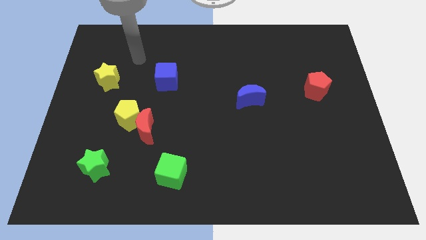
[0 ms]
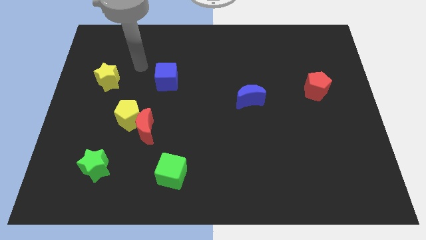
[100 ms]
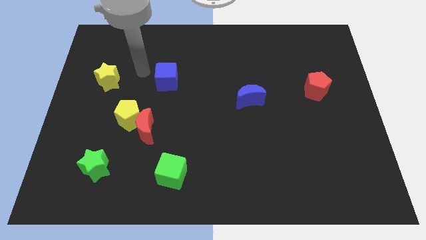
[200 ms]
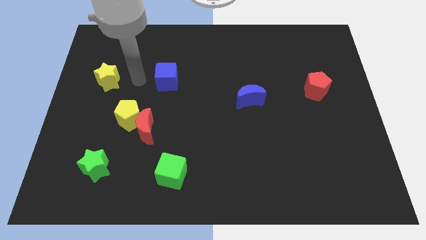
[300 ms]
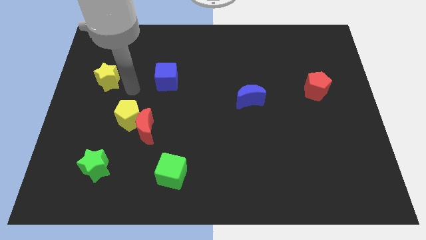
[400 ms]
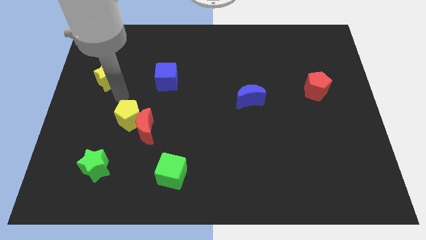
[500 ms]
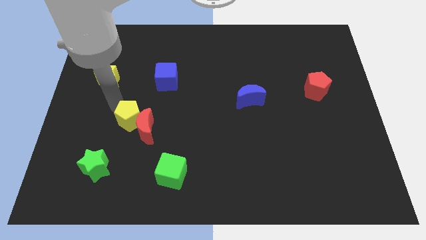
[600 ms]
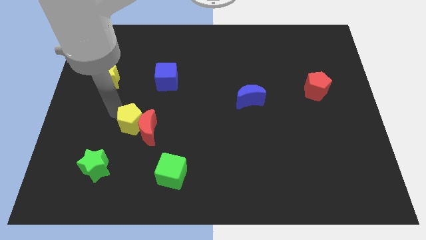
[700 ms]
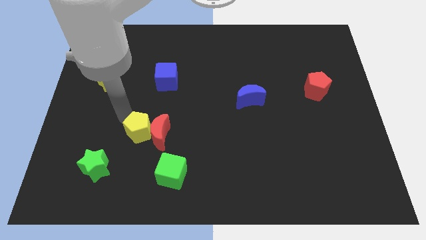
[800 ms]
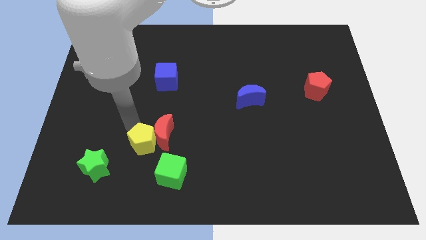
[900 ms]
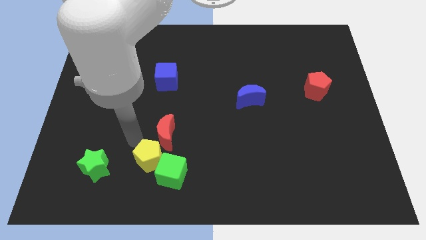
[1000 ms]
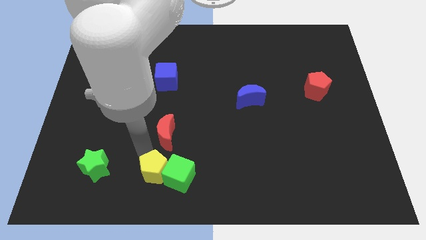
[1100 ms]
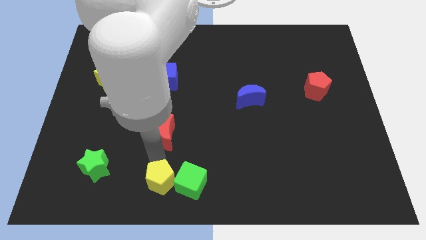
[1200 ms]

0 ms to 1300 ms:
pull the red moon apart from the yellow pentagon

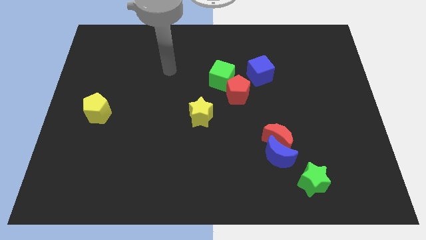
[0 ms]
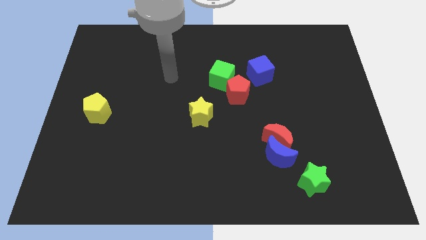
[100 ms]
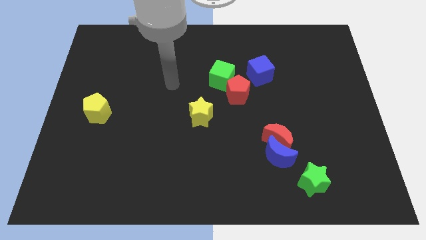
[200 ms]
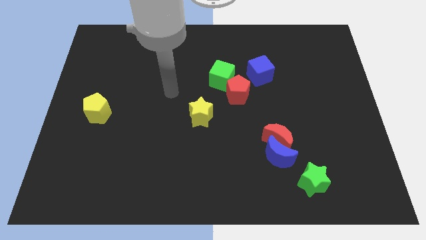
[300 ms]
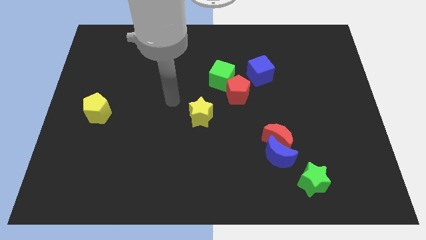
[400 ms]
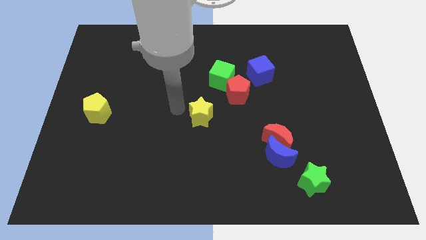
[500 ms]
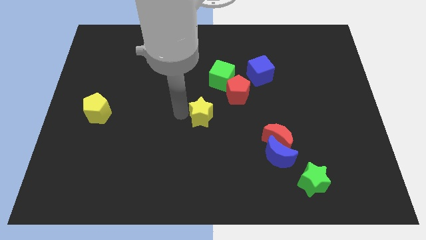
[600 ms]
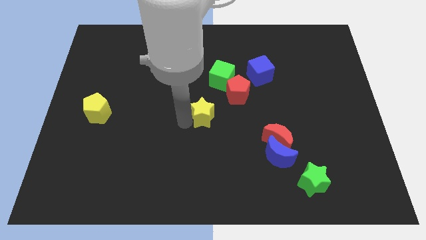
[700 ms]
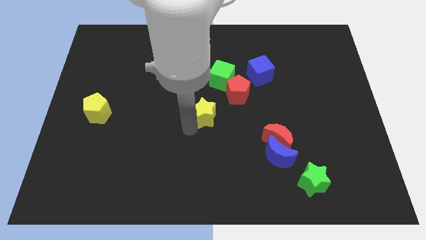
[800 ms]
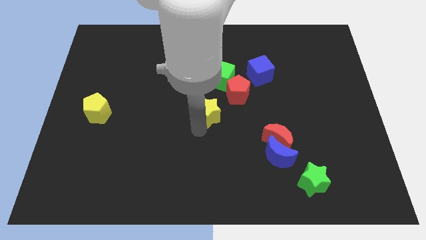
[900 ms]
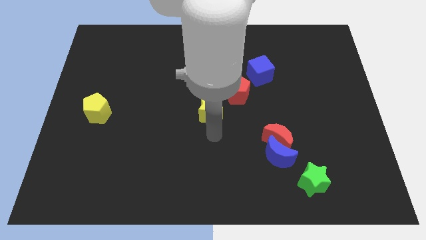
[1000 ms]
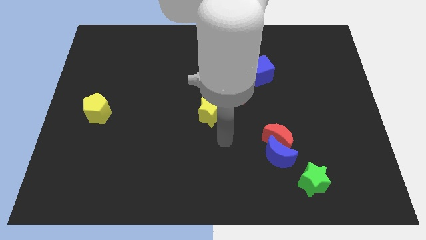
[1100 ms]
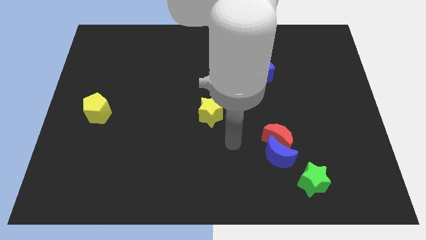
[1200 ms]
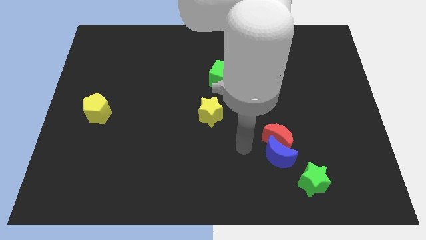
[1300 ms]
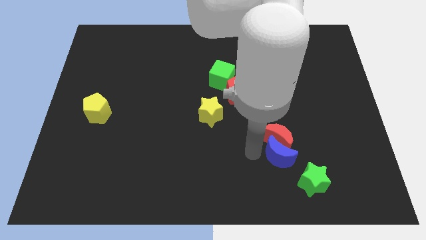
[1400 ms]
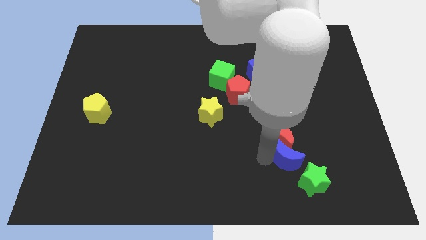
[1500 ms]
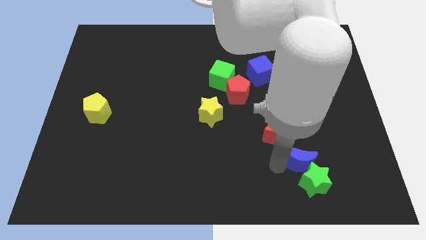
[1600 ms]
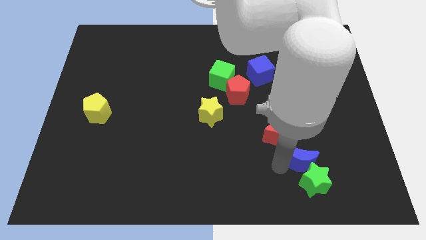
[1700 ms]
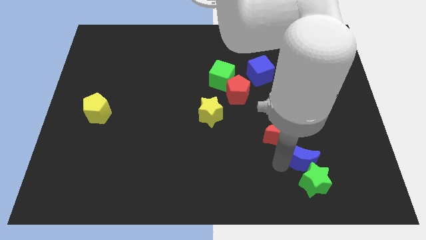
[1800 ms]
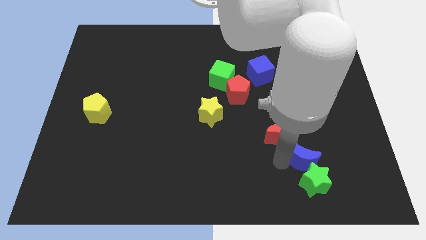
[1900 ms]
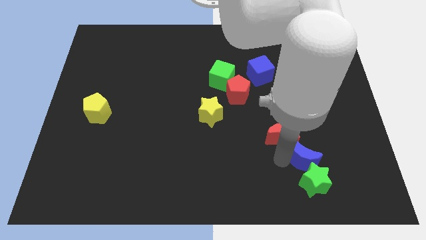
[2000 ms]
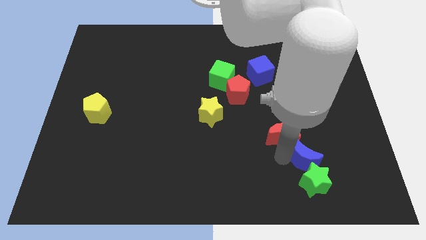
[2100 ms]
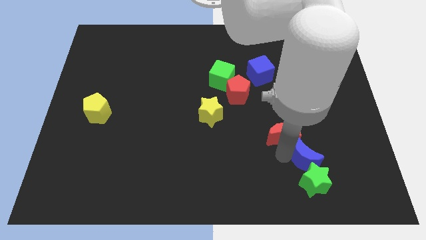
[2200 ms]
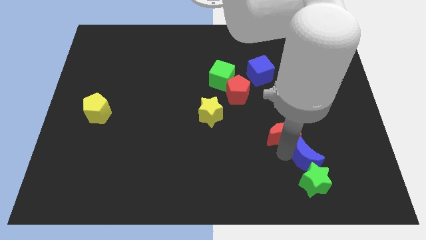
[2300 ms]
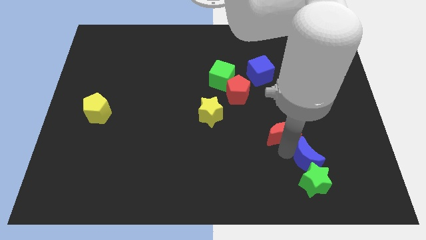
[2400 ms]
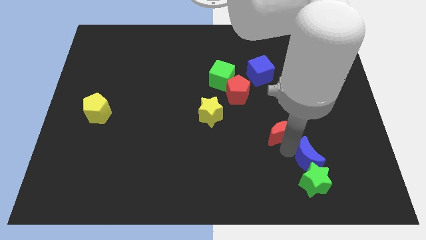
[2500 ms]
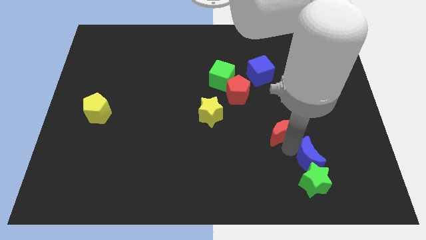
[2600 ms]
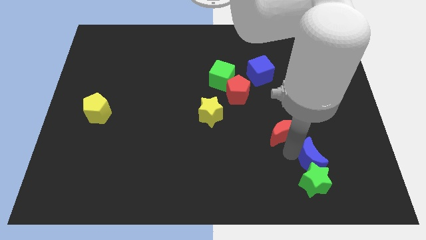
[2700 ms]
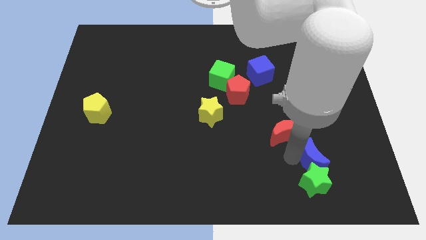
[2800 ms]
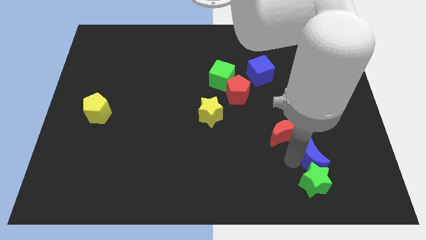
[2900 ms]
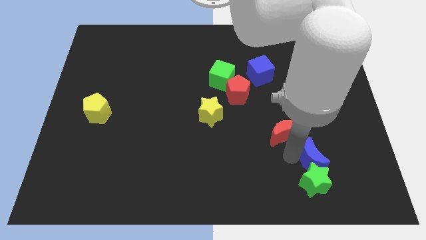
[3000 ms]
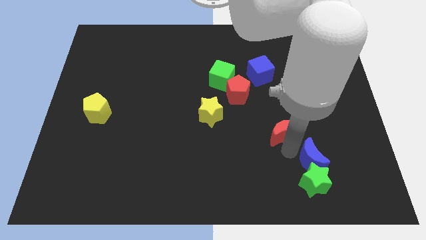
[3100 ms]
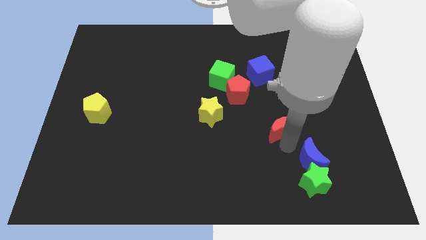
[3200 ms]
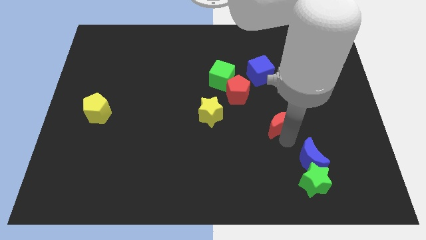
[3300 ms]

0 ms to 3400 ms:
separate the red moon from the blue moon

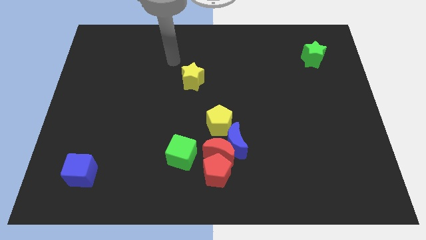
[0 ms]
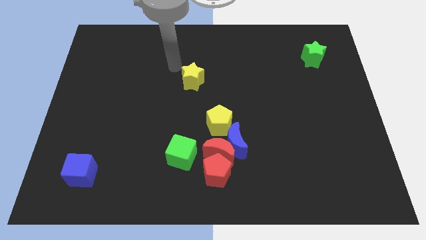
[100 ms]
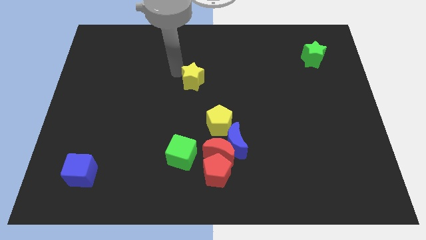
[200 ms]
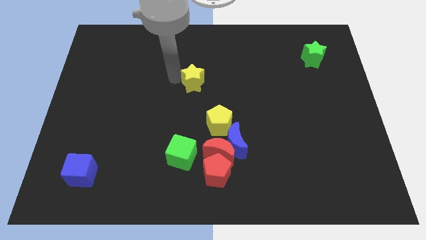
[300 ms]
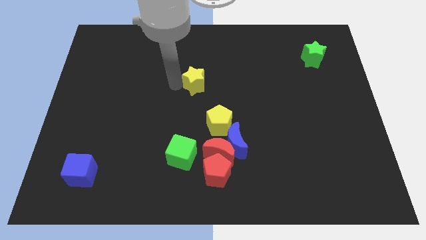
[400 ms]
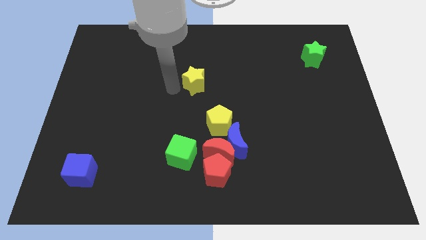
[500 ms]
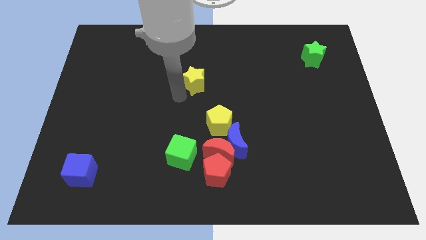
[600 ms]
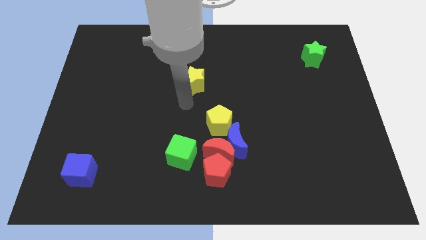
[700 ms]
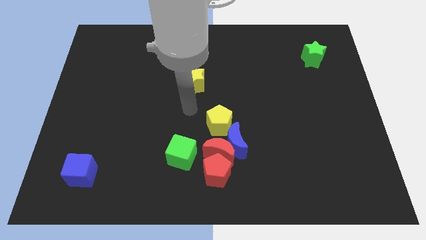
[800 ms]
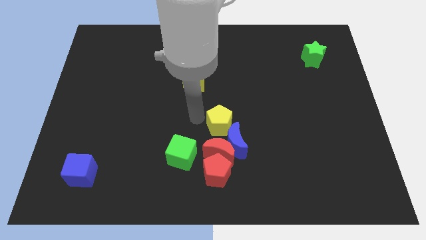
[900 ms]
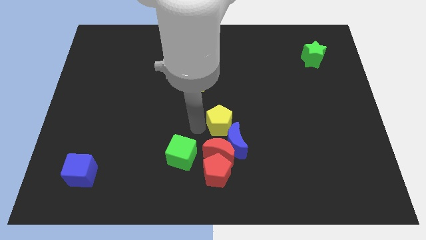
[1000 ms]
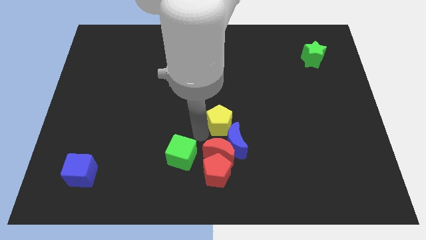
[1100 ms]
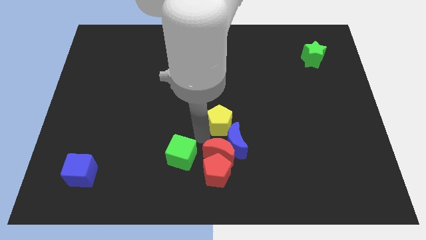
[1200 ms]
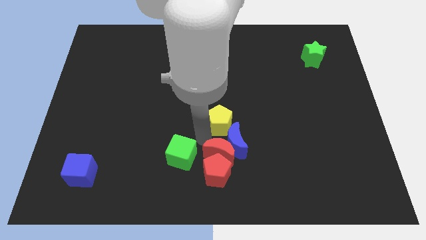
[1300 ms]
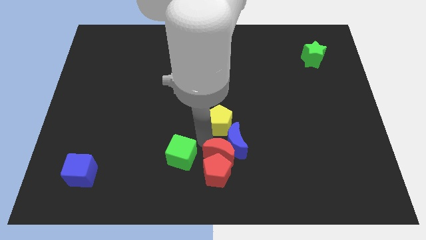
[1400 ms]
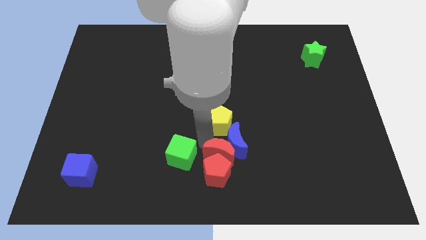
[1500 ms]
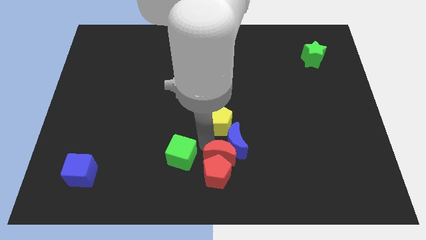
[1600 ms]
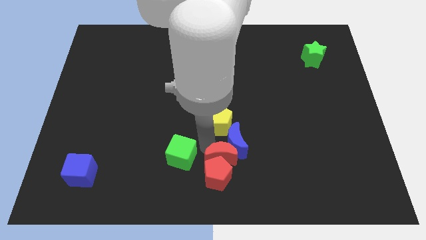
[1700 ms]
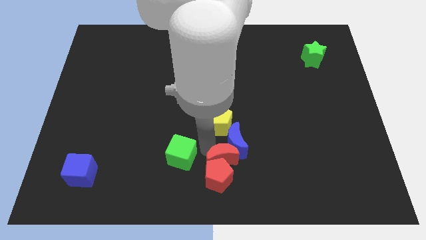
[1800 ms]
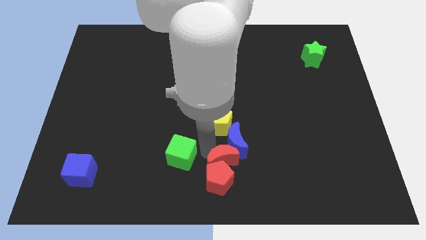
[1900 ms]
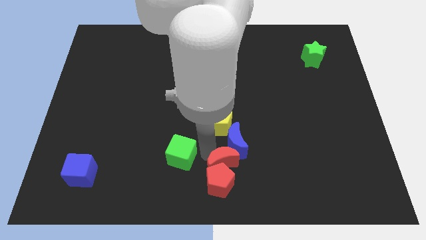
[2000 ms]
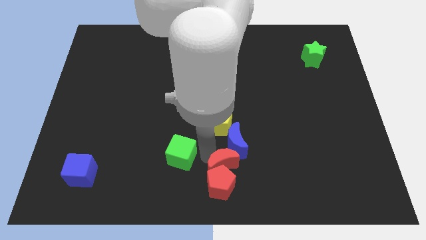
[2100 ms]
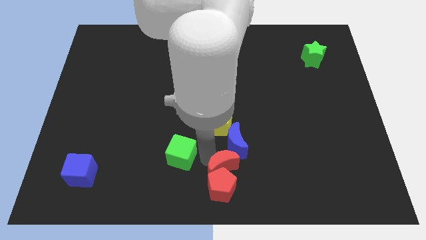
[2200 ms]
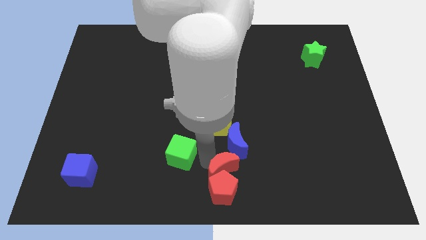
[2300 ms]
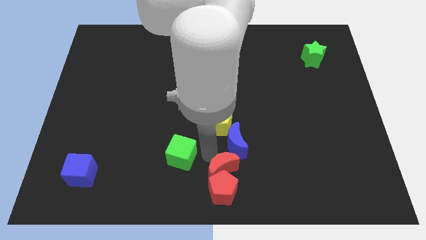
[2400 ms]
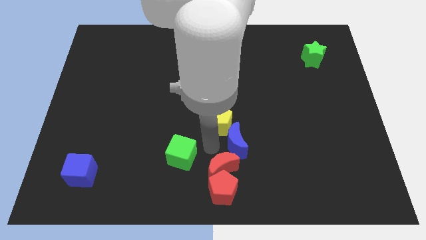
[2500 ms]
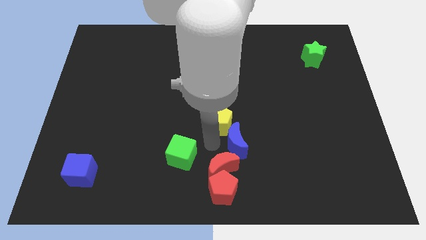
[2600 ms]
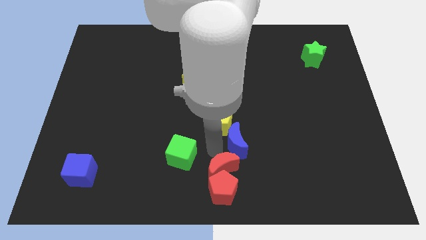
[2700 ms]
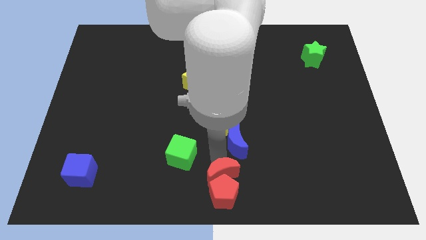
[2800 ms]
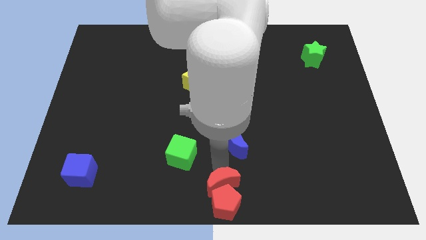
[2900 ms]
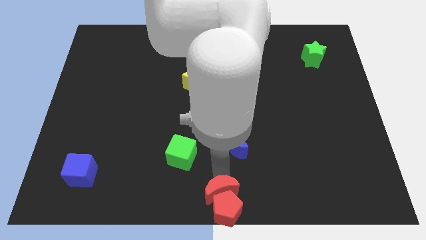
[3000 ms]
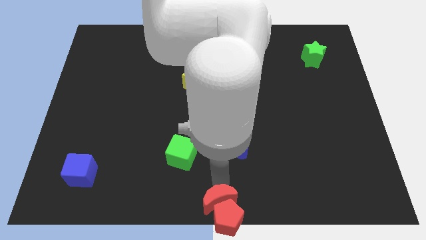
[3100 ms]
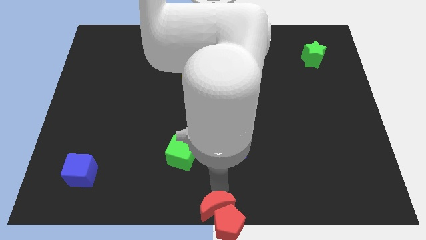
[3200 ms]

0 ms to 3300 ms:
pull the red moon apart from the group of blocks

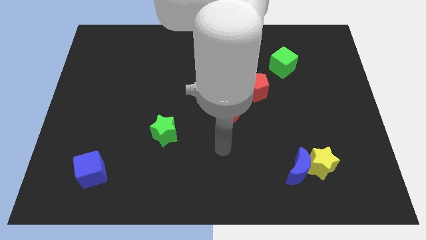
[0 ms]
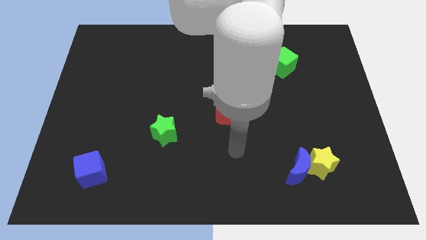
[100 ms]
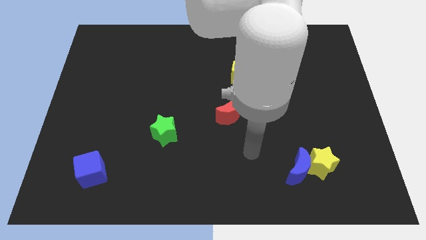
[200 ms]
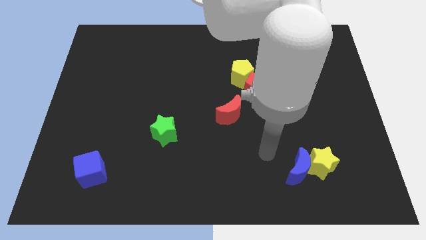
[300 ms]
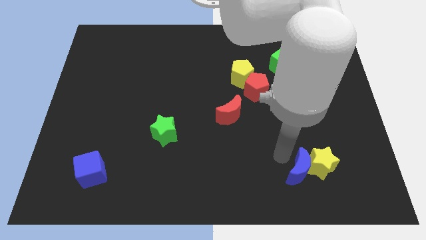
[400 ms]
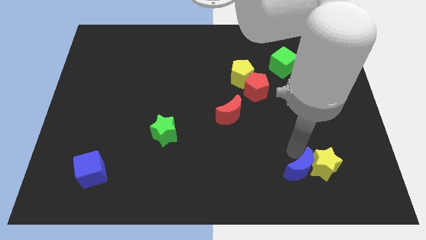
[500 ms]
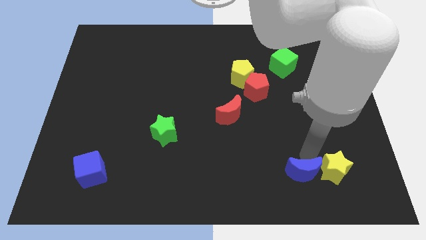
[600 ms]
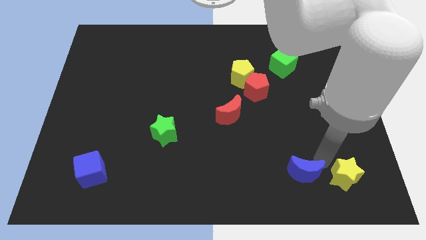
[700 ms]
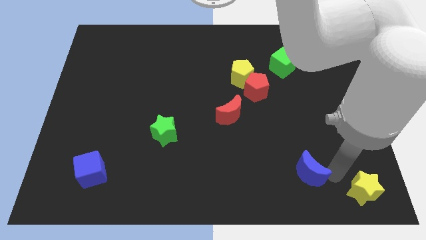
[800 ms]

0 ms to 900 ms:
move the blue moon away from the yellow star

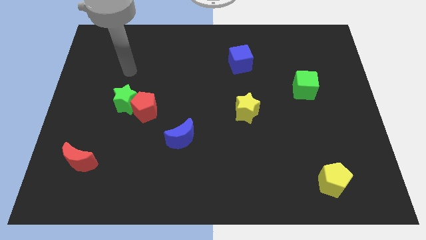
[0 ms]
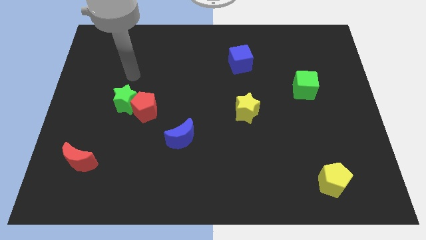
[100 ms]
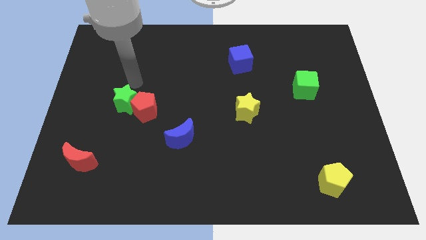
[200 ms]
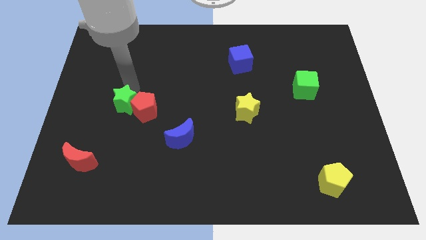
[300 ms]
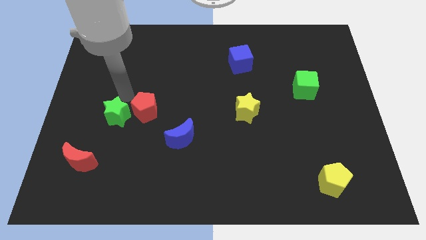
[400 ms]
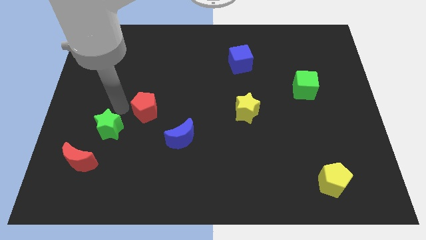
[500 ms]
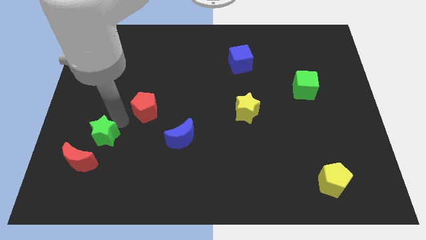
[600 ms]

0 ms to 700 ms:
pull the red pentagon apart from the green star
